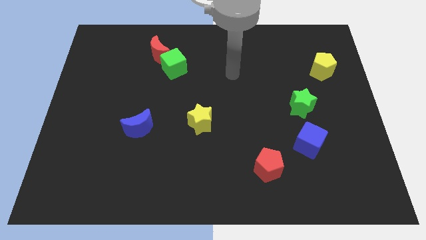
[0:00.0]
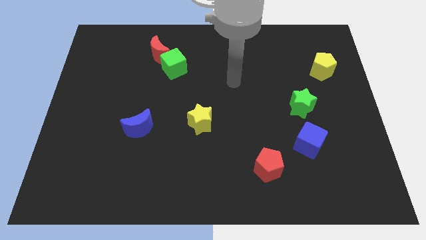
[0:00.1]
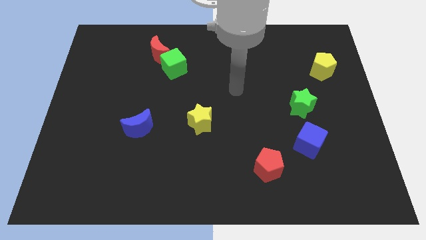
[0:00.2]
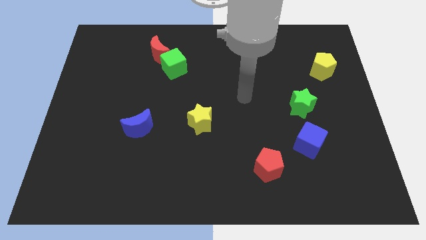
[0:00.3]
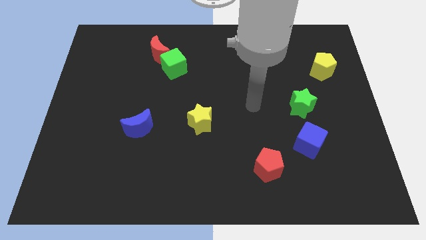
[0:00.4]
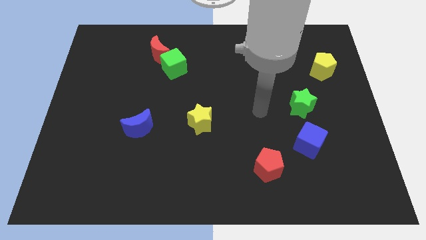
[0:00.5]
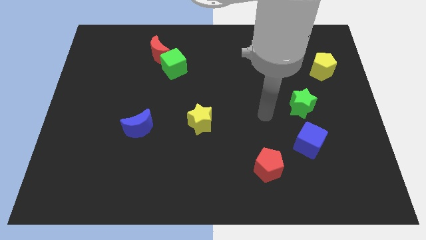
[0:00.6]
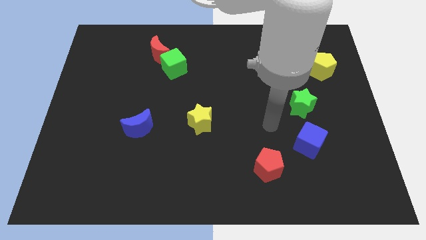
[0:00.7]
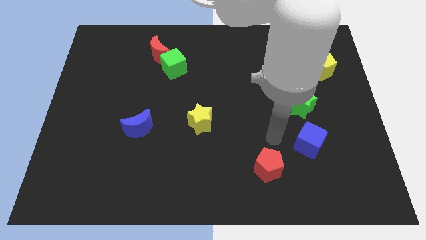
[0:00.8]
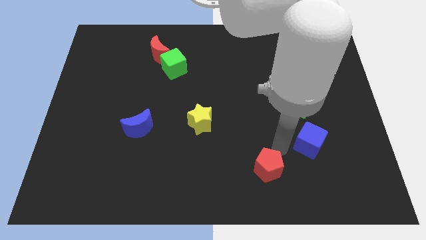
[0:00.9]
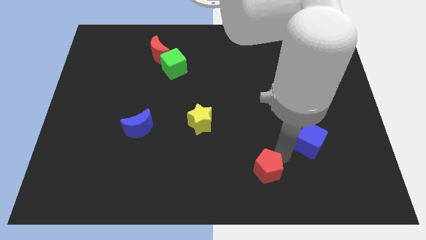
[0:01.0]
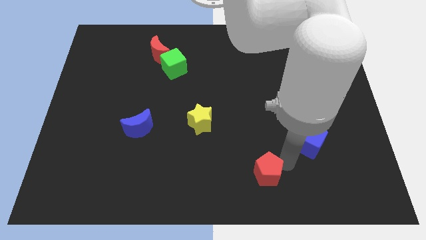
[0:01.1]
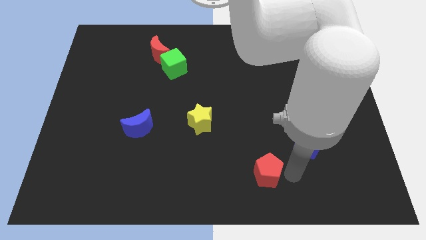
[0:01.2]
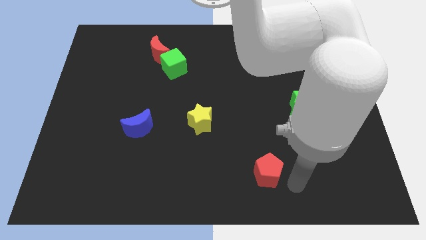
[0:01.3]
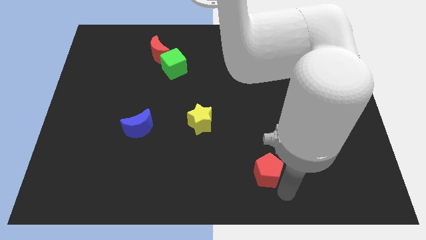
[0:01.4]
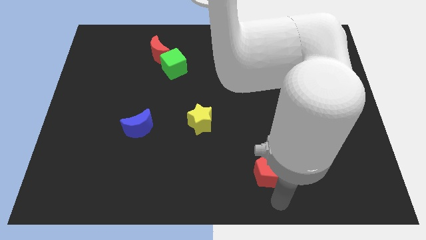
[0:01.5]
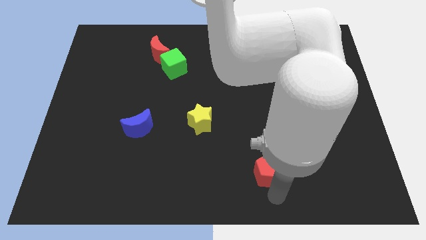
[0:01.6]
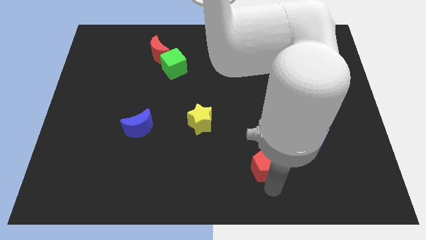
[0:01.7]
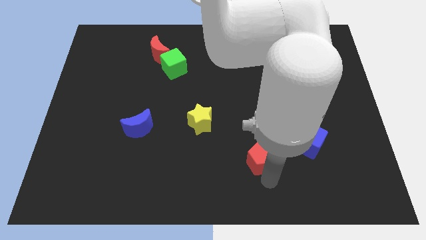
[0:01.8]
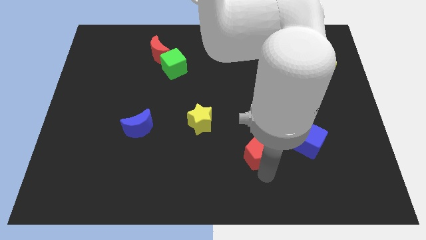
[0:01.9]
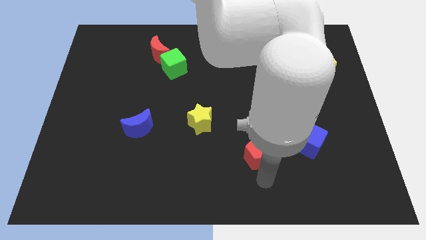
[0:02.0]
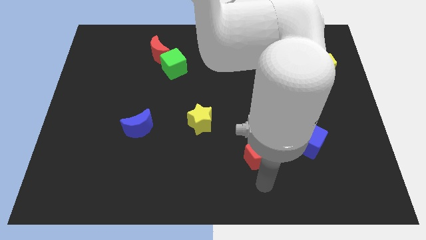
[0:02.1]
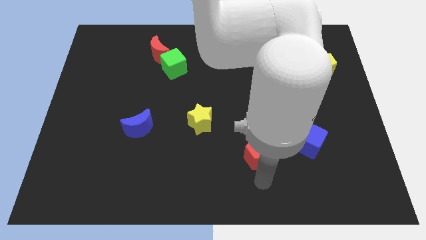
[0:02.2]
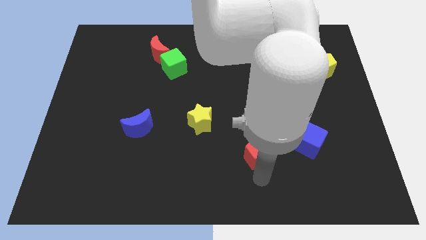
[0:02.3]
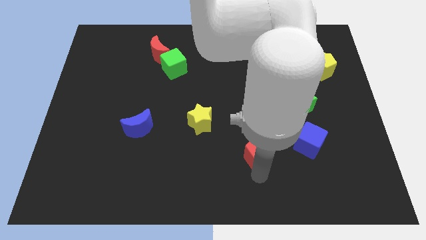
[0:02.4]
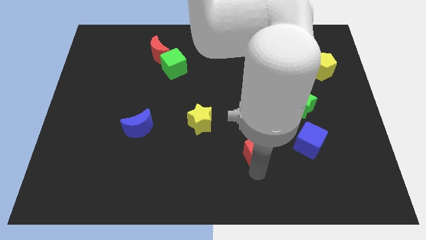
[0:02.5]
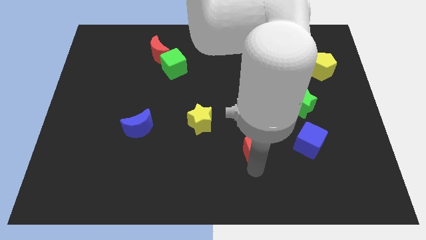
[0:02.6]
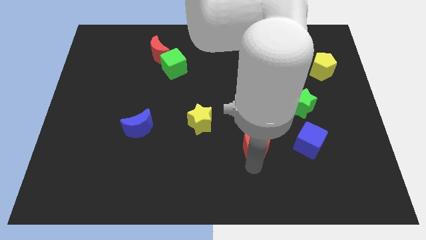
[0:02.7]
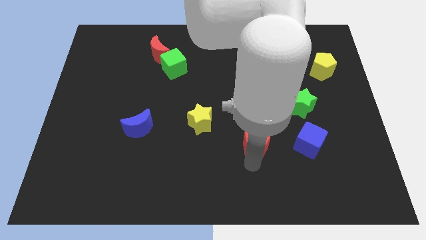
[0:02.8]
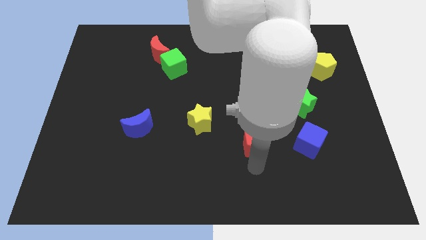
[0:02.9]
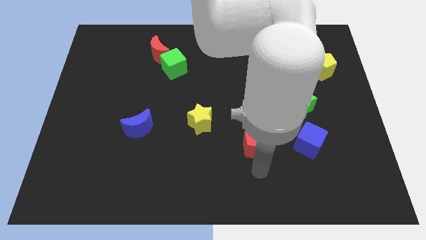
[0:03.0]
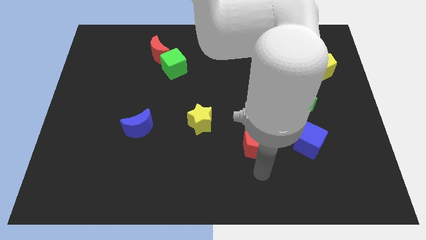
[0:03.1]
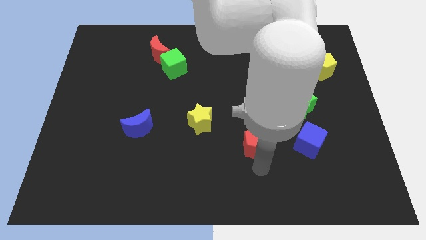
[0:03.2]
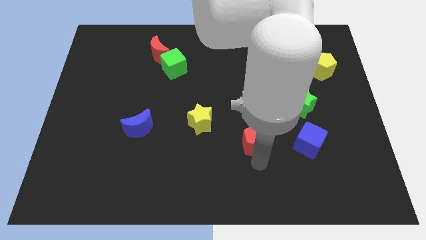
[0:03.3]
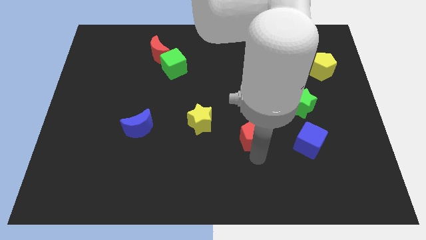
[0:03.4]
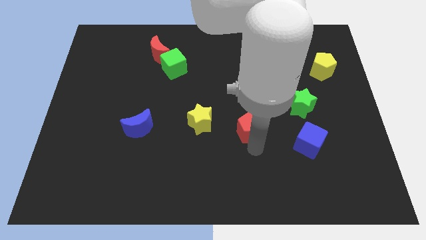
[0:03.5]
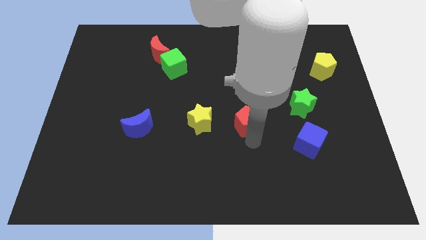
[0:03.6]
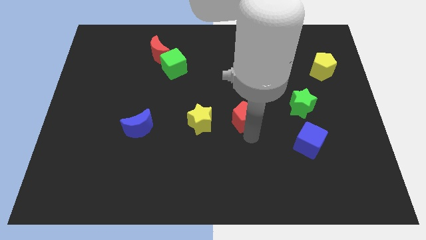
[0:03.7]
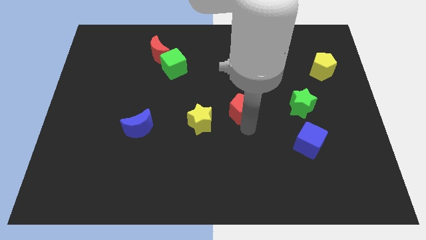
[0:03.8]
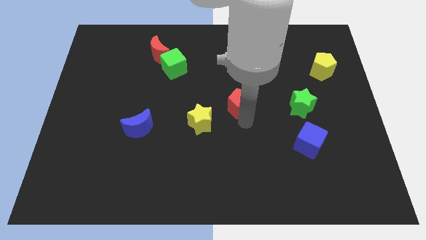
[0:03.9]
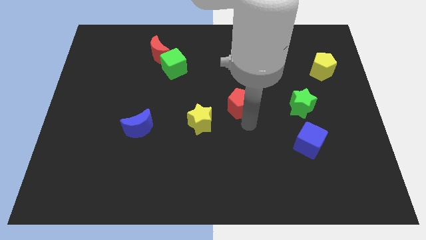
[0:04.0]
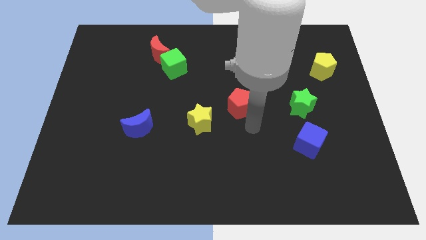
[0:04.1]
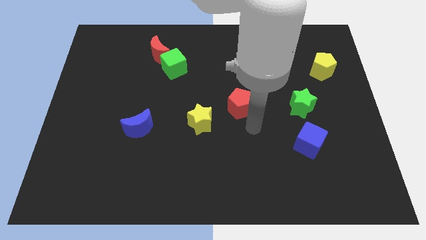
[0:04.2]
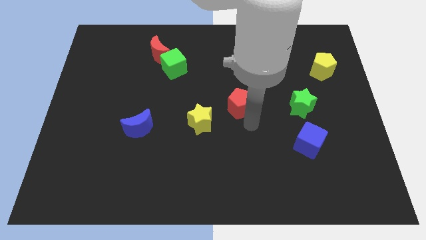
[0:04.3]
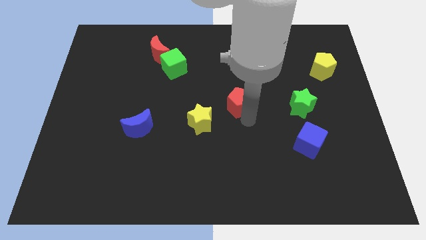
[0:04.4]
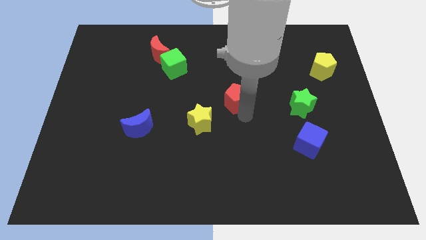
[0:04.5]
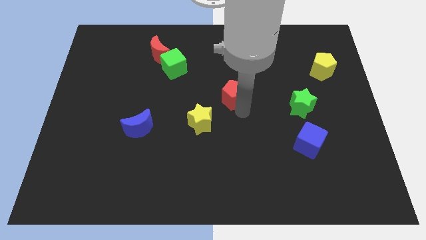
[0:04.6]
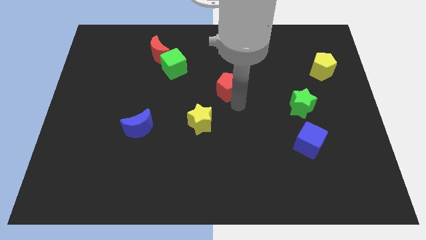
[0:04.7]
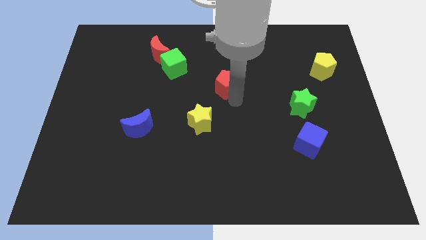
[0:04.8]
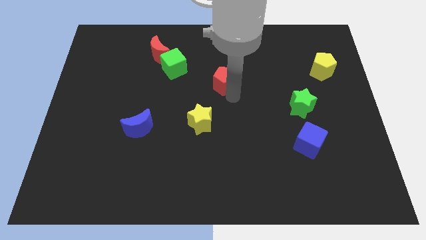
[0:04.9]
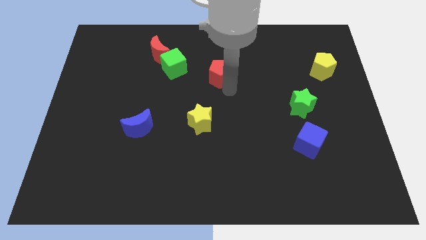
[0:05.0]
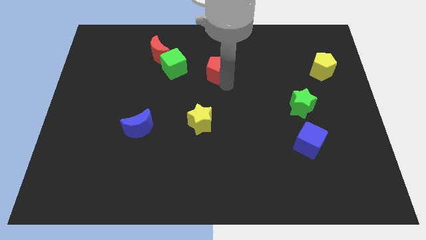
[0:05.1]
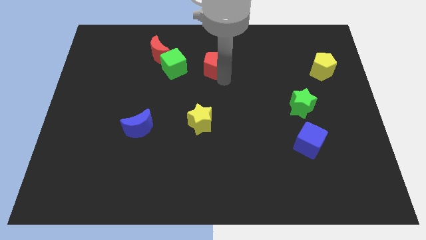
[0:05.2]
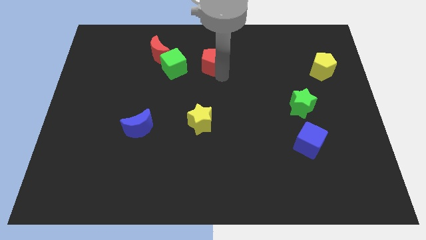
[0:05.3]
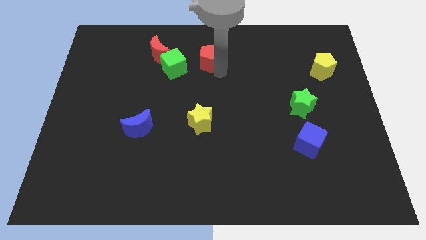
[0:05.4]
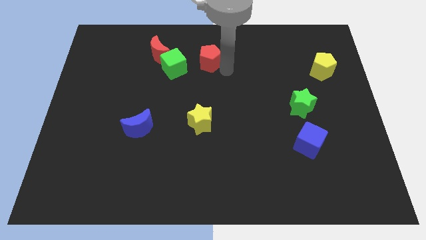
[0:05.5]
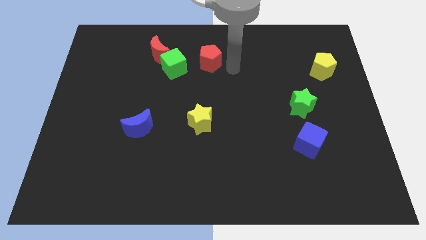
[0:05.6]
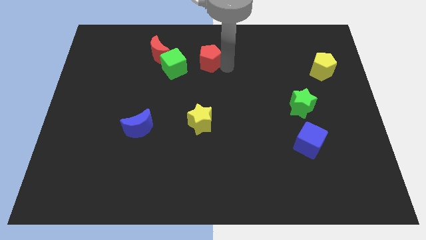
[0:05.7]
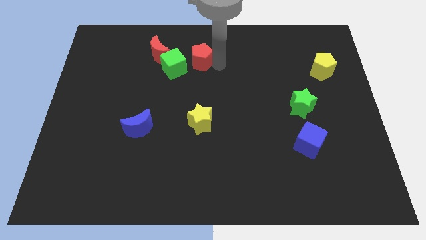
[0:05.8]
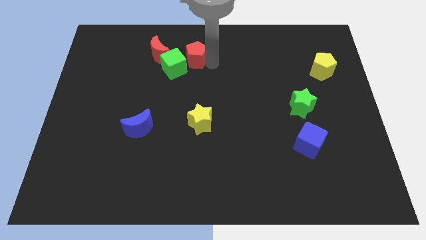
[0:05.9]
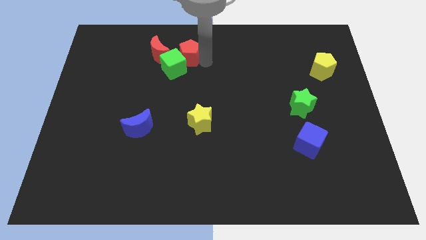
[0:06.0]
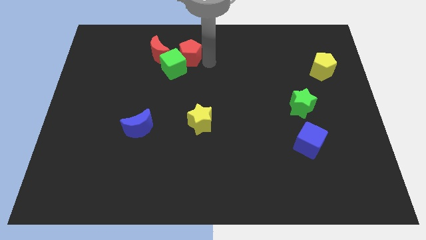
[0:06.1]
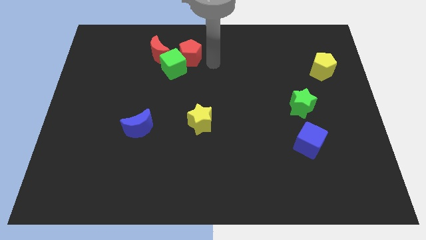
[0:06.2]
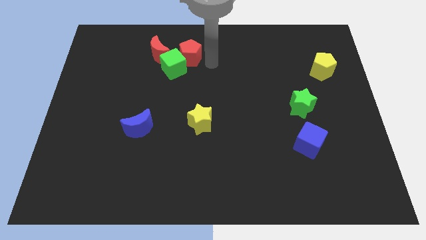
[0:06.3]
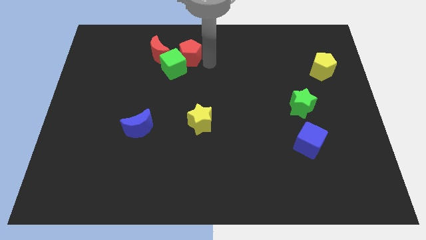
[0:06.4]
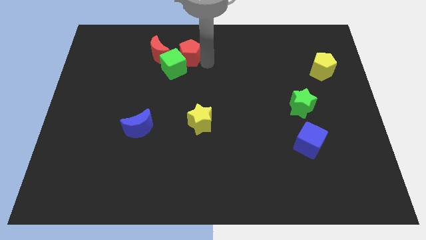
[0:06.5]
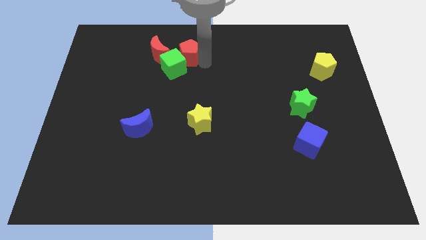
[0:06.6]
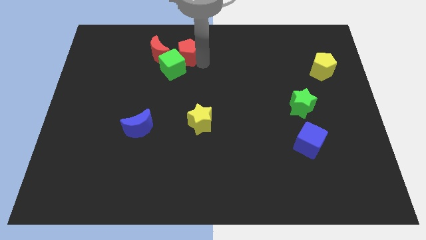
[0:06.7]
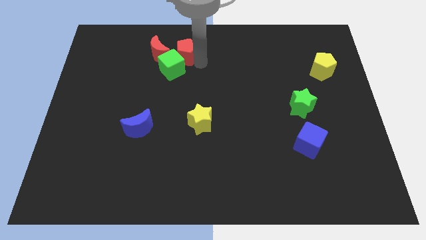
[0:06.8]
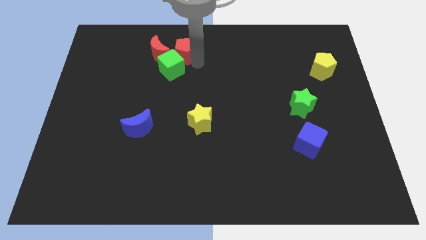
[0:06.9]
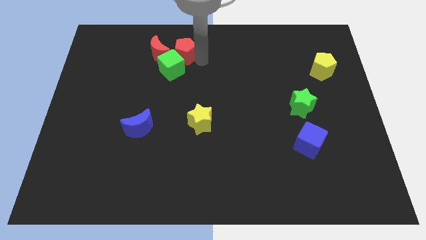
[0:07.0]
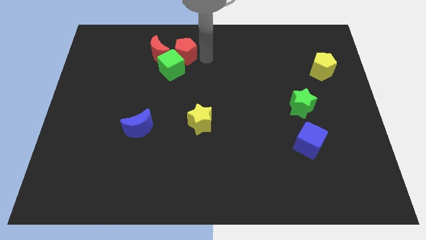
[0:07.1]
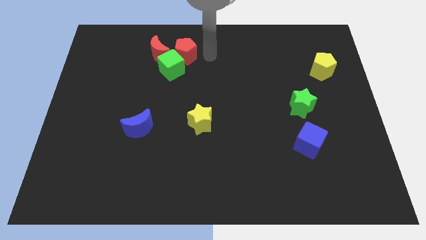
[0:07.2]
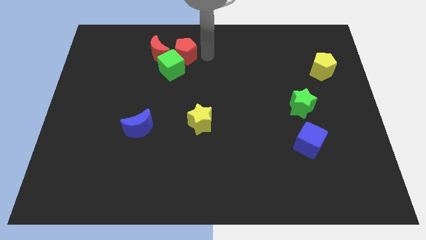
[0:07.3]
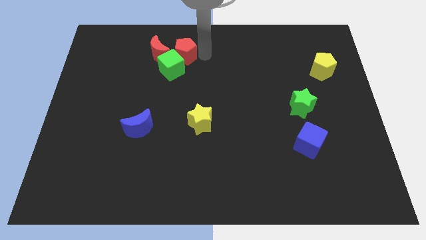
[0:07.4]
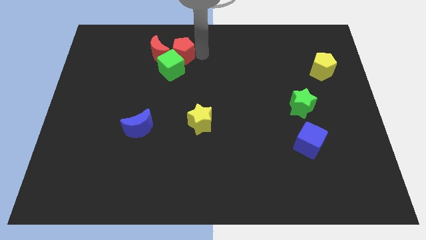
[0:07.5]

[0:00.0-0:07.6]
put the red pentagon towards the red moon
